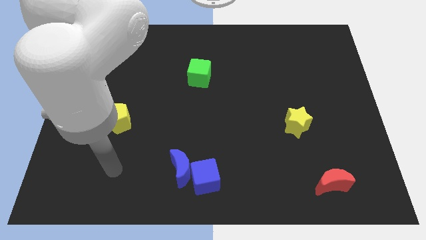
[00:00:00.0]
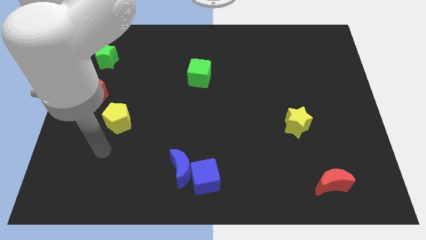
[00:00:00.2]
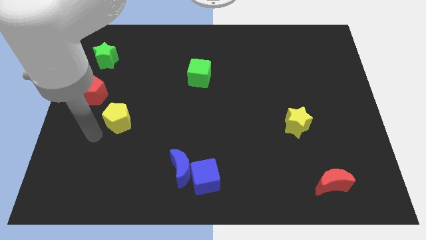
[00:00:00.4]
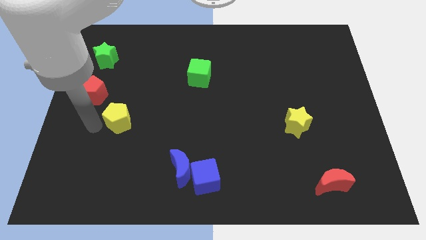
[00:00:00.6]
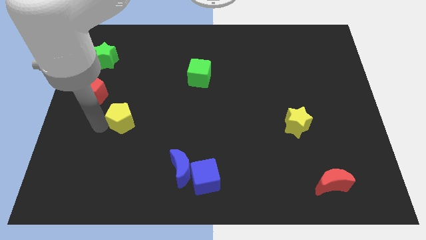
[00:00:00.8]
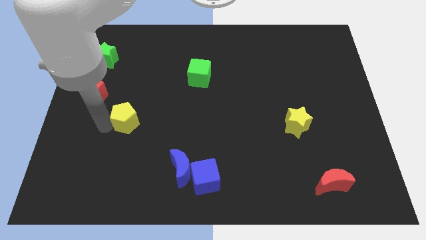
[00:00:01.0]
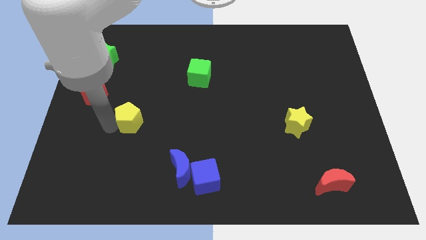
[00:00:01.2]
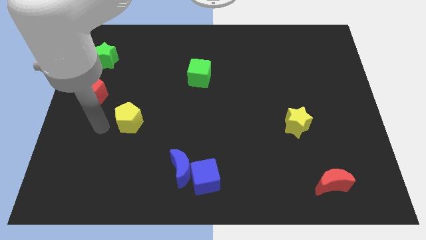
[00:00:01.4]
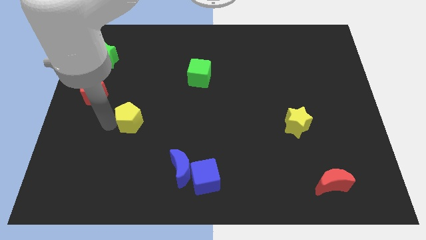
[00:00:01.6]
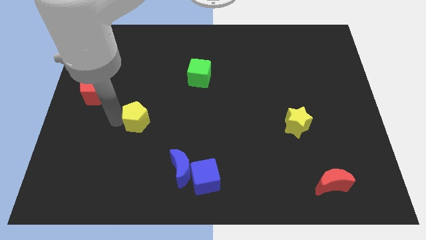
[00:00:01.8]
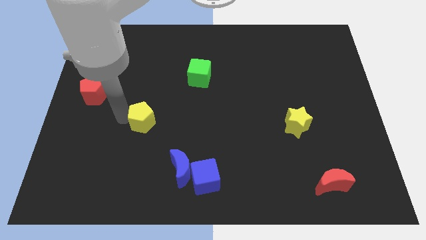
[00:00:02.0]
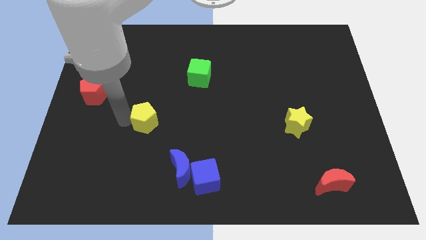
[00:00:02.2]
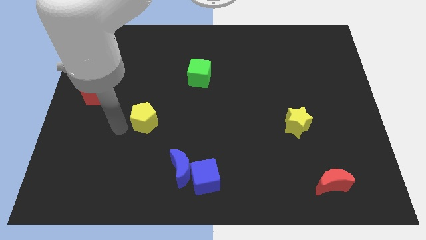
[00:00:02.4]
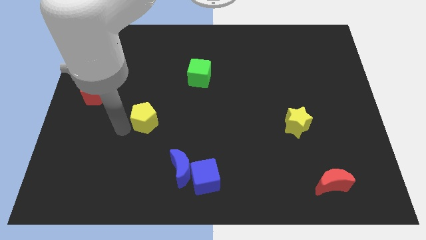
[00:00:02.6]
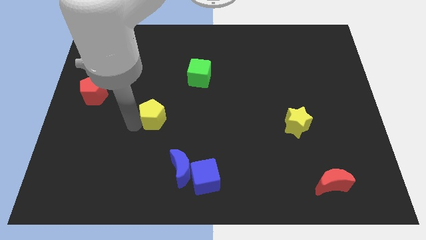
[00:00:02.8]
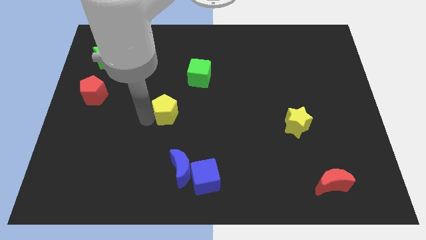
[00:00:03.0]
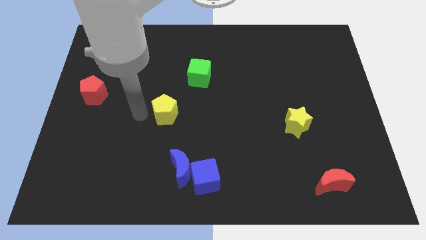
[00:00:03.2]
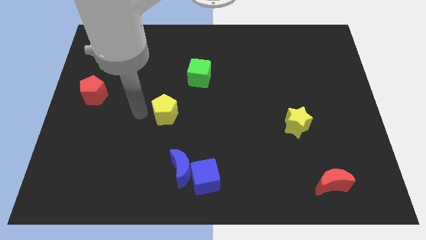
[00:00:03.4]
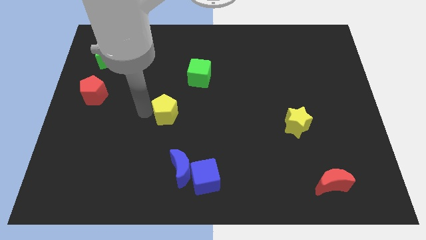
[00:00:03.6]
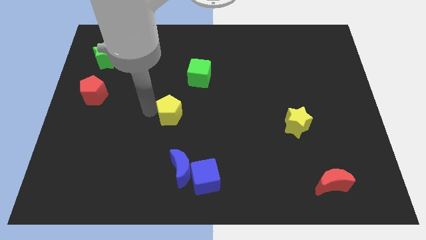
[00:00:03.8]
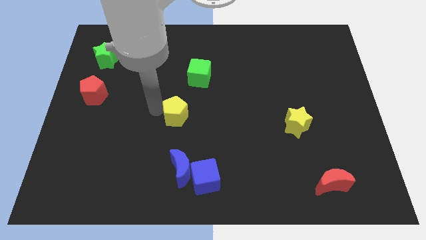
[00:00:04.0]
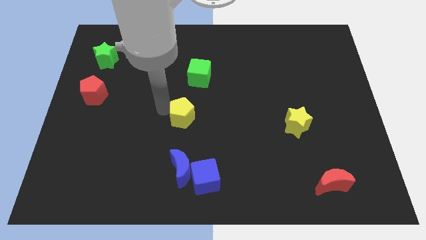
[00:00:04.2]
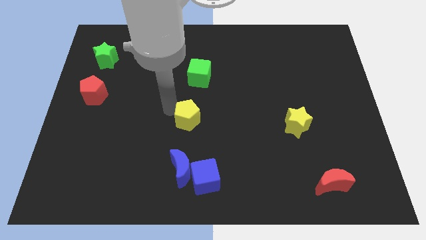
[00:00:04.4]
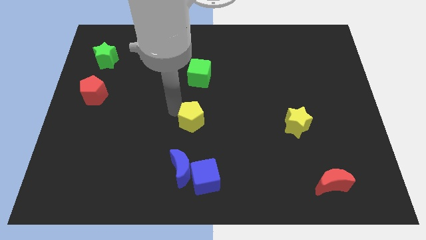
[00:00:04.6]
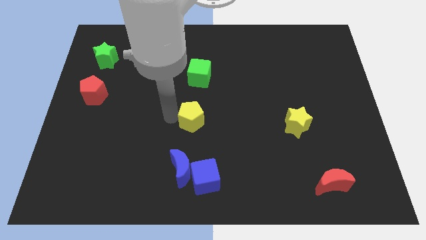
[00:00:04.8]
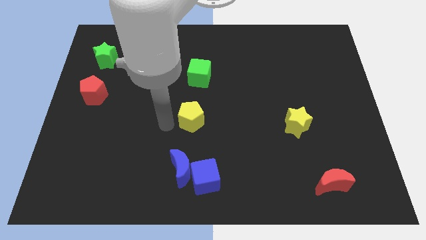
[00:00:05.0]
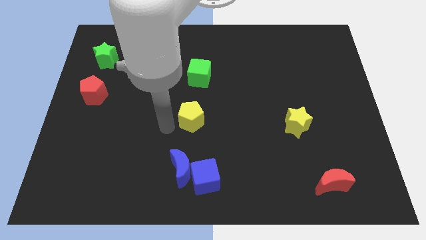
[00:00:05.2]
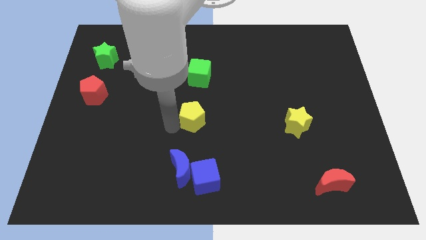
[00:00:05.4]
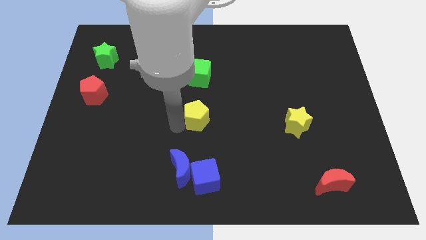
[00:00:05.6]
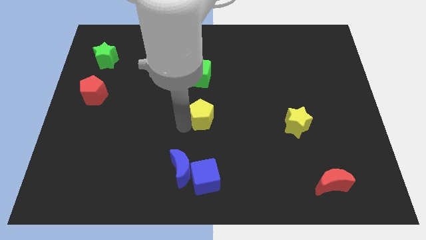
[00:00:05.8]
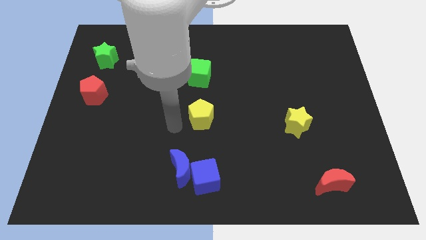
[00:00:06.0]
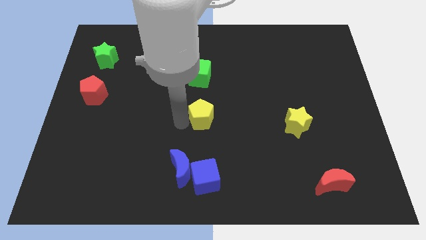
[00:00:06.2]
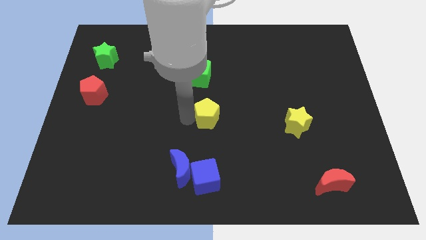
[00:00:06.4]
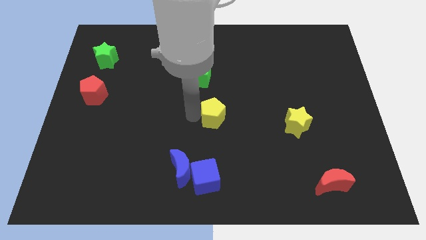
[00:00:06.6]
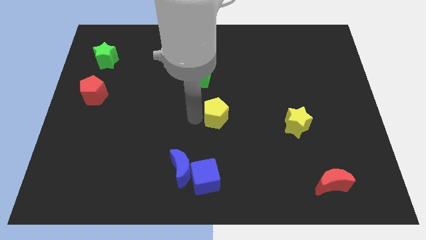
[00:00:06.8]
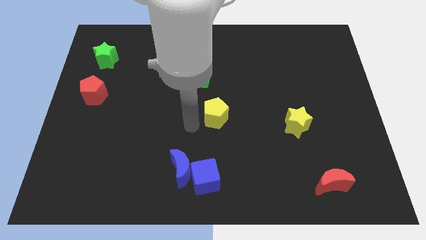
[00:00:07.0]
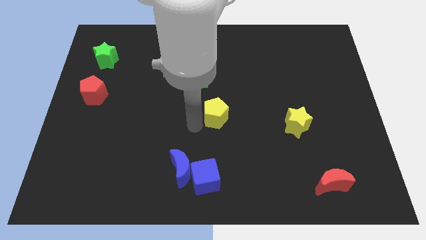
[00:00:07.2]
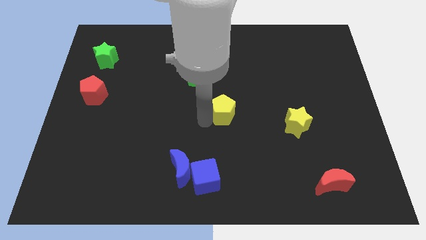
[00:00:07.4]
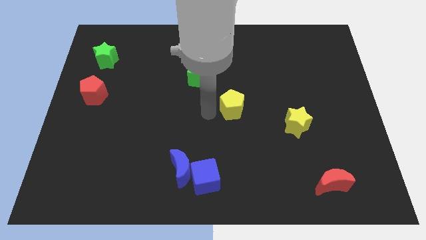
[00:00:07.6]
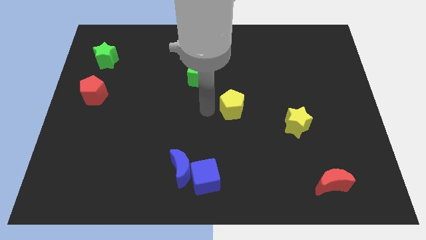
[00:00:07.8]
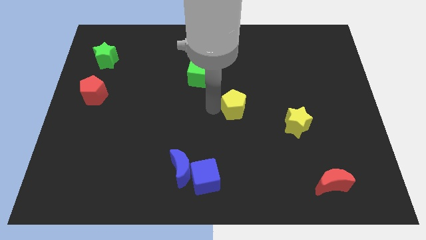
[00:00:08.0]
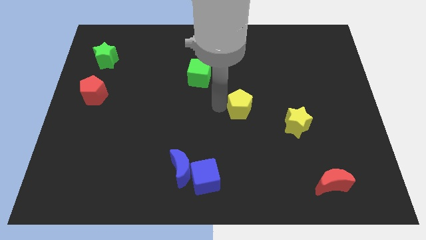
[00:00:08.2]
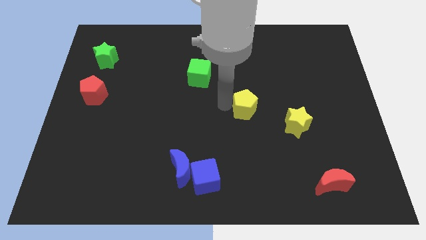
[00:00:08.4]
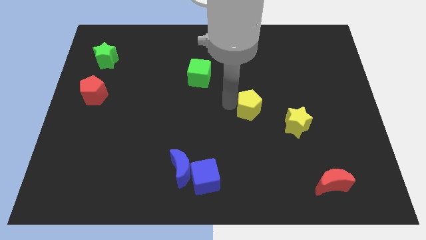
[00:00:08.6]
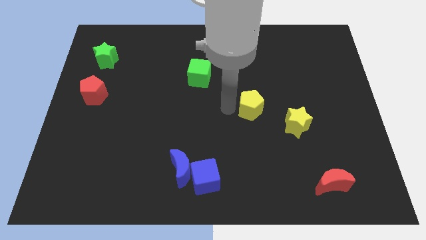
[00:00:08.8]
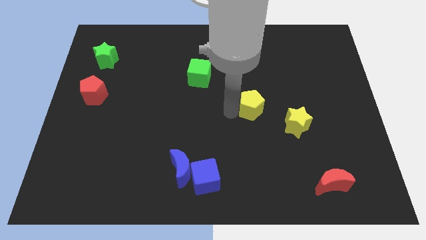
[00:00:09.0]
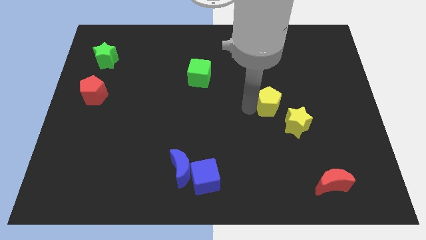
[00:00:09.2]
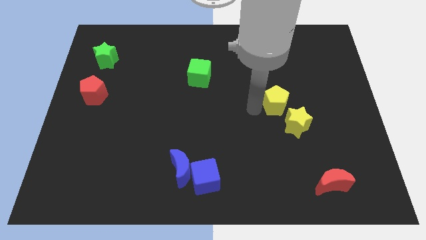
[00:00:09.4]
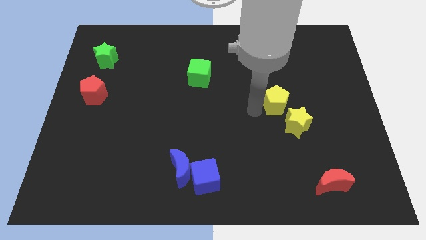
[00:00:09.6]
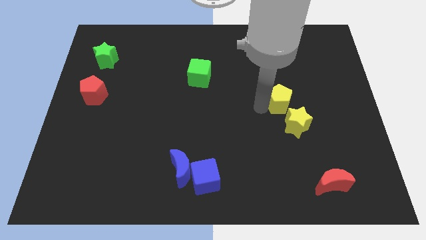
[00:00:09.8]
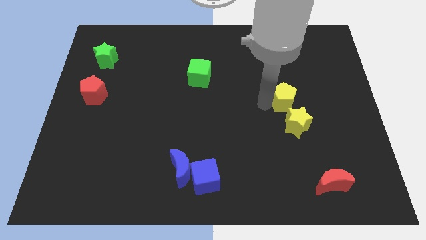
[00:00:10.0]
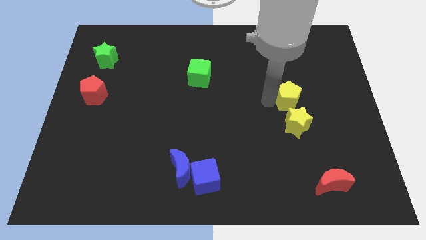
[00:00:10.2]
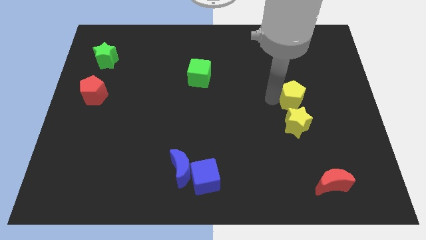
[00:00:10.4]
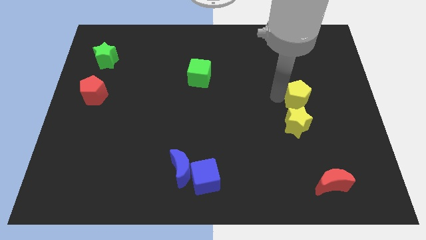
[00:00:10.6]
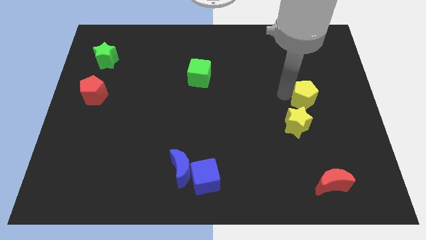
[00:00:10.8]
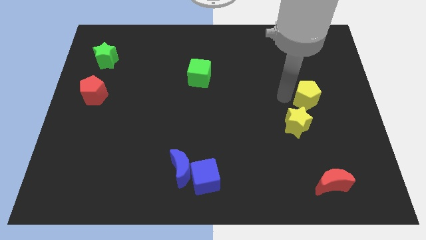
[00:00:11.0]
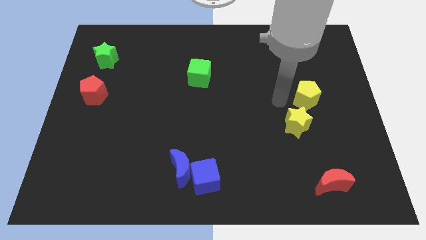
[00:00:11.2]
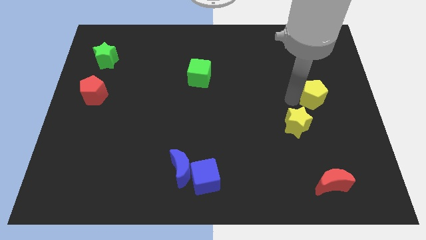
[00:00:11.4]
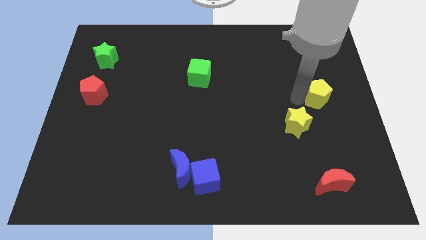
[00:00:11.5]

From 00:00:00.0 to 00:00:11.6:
move the yellow pentagon to the right side

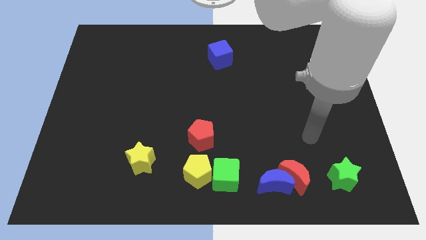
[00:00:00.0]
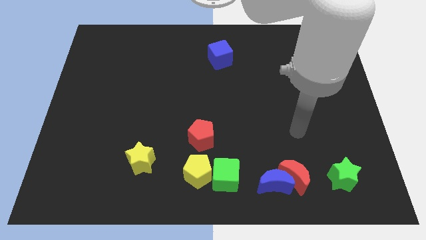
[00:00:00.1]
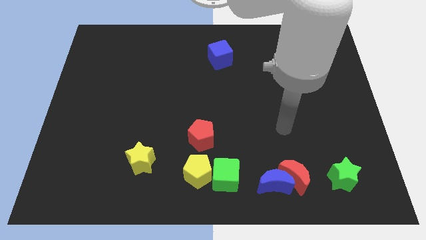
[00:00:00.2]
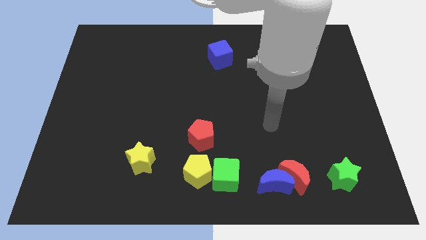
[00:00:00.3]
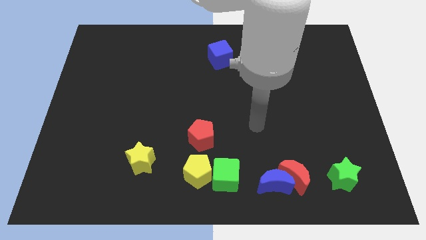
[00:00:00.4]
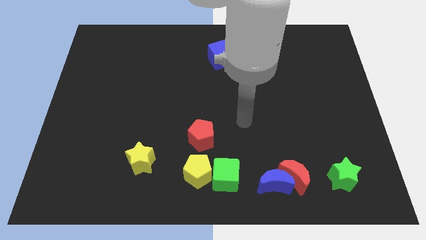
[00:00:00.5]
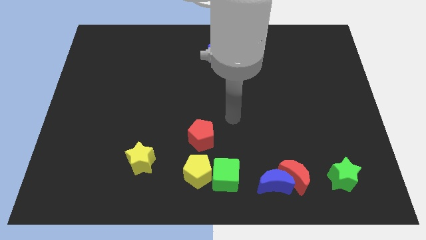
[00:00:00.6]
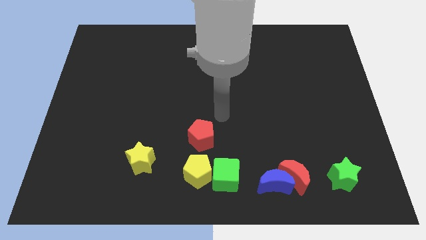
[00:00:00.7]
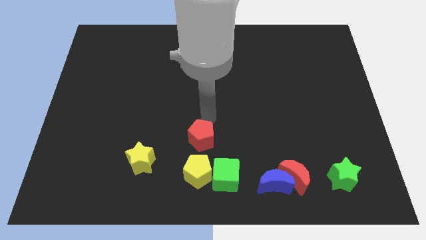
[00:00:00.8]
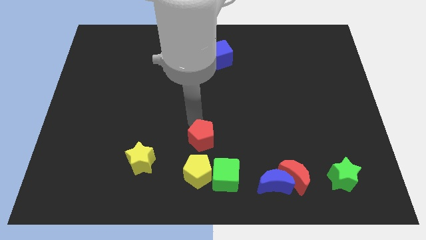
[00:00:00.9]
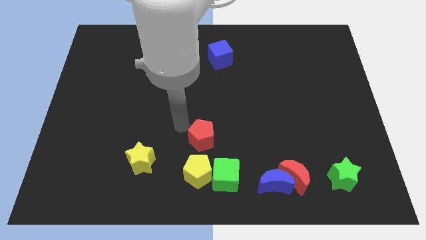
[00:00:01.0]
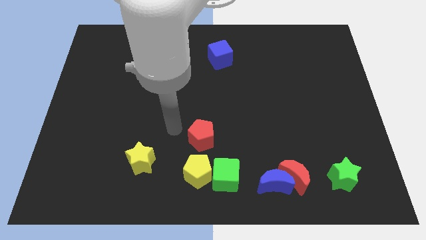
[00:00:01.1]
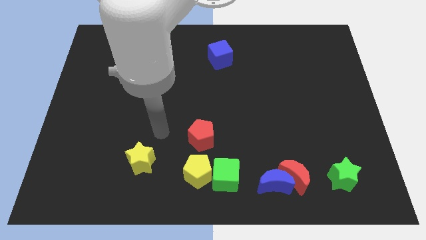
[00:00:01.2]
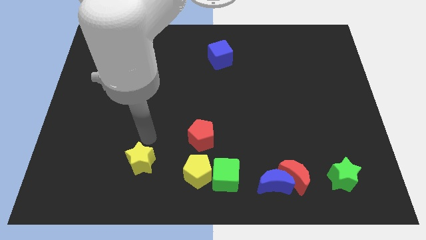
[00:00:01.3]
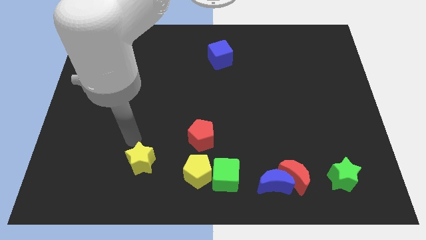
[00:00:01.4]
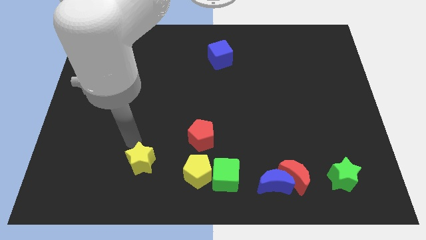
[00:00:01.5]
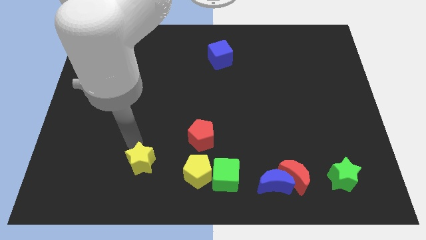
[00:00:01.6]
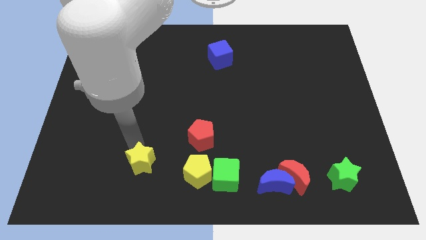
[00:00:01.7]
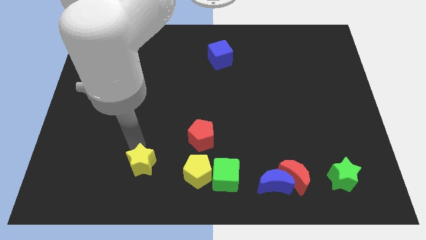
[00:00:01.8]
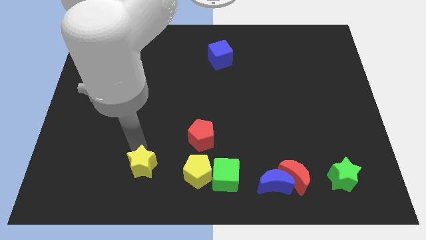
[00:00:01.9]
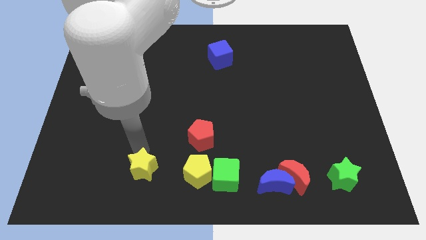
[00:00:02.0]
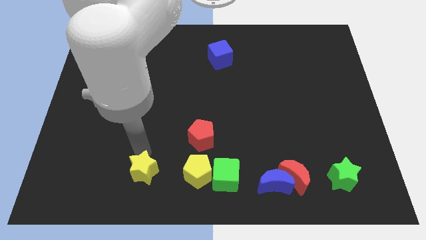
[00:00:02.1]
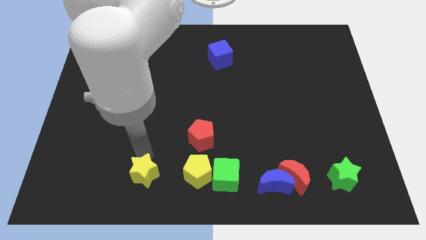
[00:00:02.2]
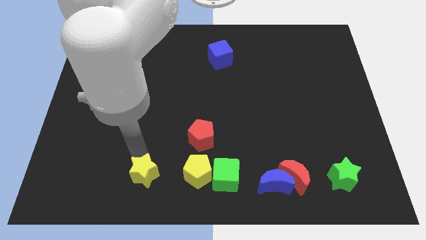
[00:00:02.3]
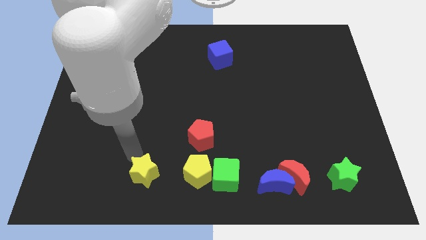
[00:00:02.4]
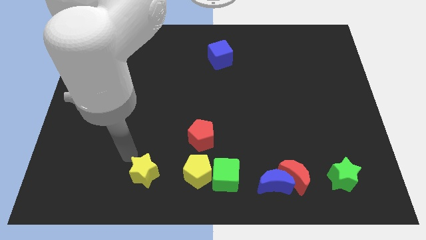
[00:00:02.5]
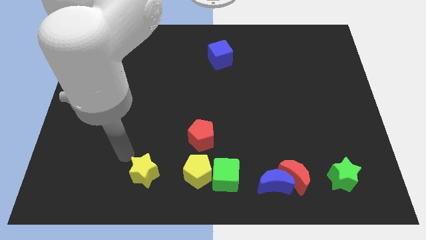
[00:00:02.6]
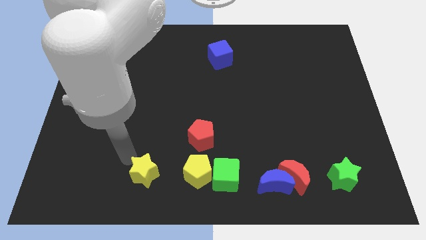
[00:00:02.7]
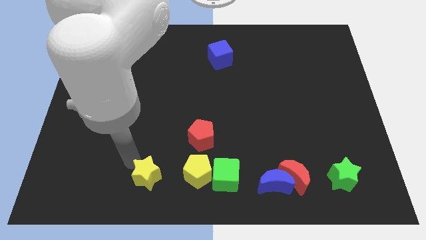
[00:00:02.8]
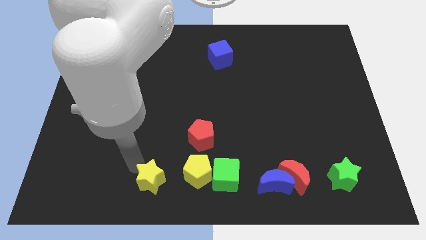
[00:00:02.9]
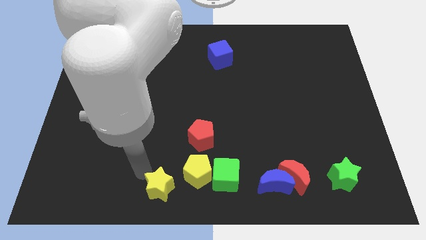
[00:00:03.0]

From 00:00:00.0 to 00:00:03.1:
put the yellow star to the bottom side
